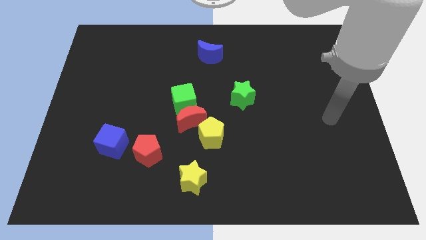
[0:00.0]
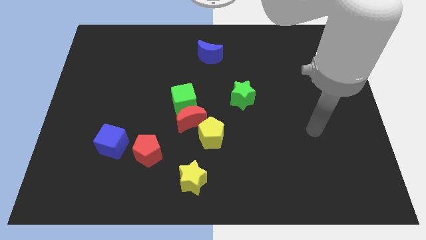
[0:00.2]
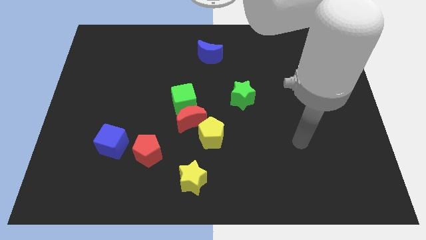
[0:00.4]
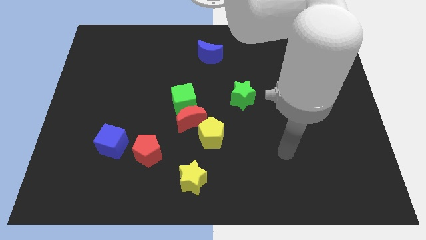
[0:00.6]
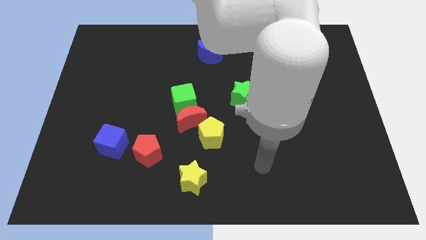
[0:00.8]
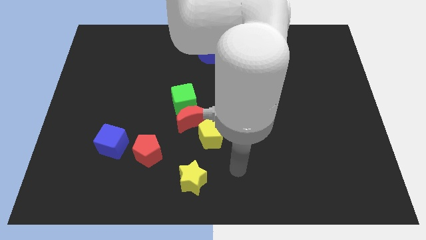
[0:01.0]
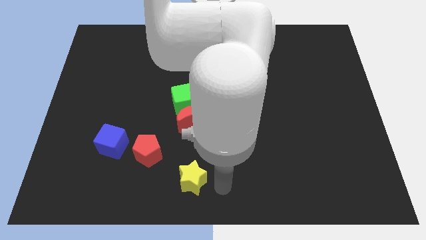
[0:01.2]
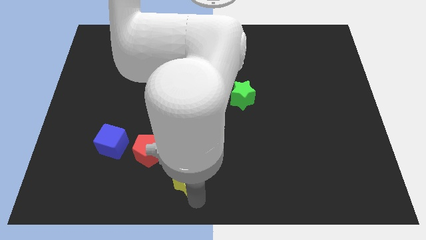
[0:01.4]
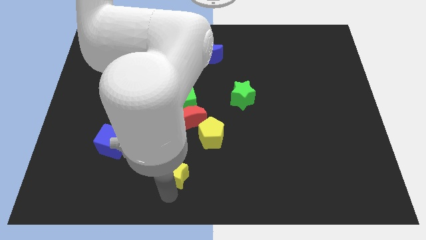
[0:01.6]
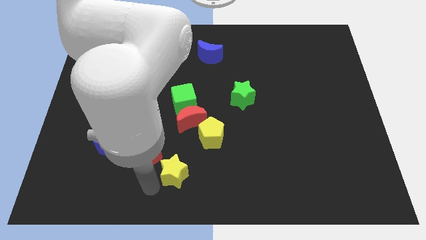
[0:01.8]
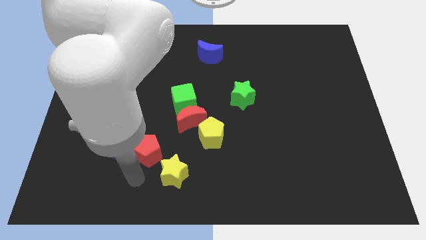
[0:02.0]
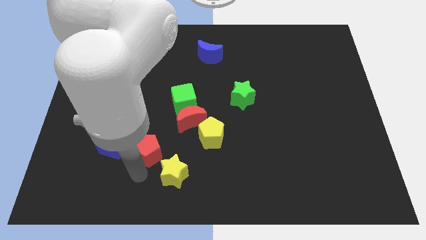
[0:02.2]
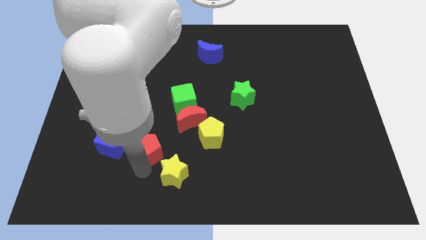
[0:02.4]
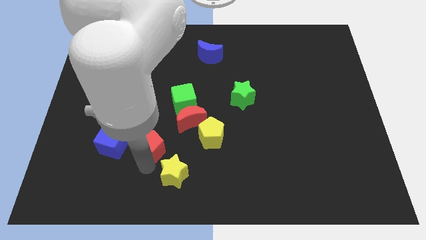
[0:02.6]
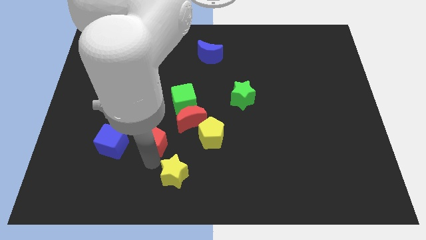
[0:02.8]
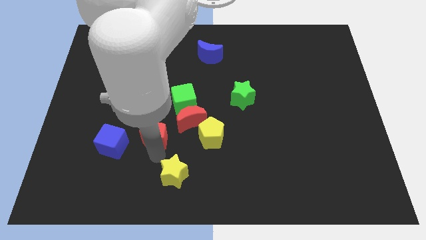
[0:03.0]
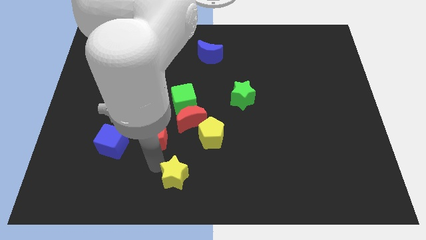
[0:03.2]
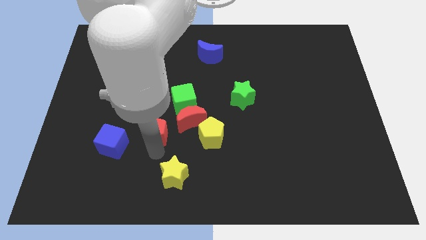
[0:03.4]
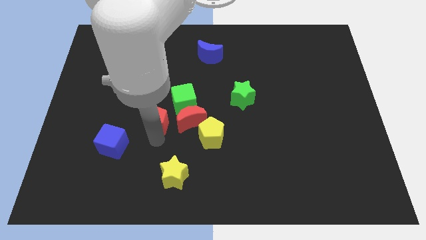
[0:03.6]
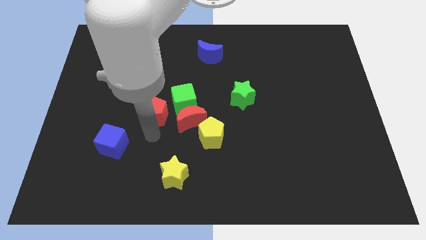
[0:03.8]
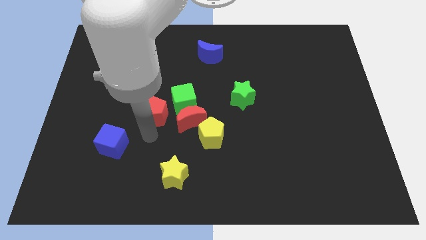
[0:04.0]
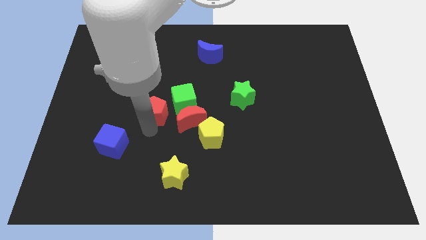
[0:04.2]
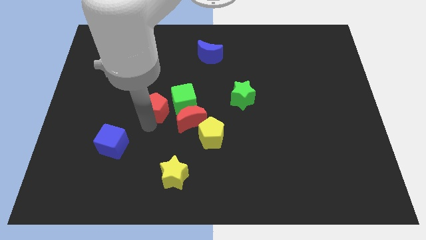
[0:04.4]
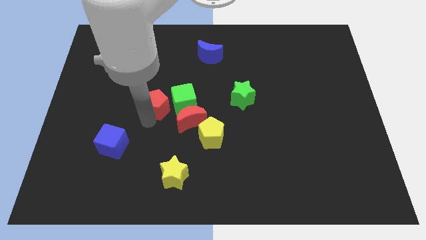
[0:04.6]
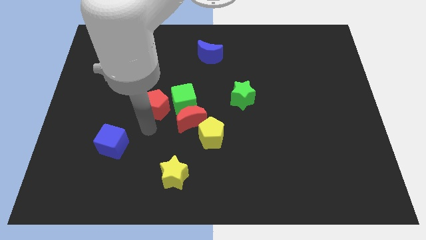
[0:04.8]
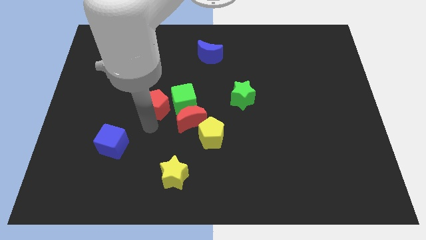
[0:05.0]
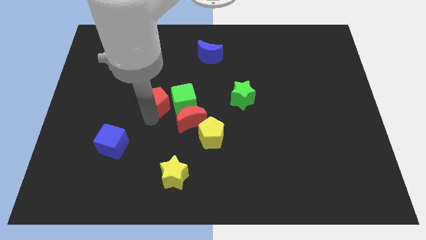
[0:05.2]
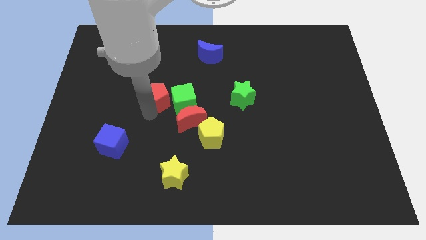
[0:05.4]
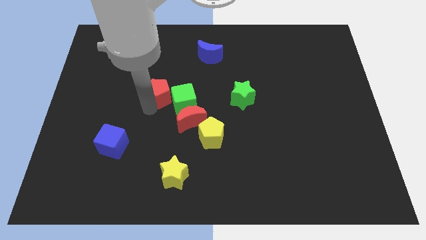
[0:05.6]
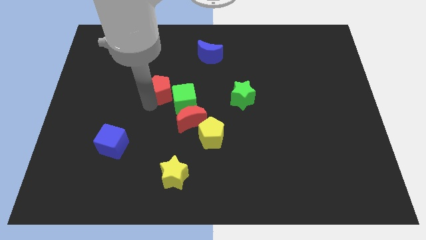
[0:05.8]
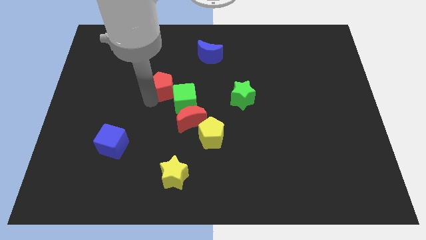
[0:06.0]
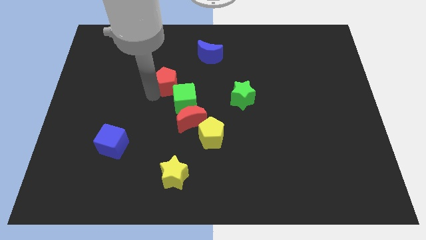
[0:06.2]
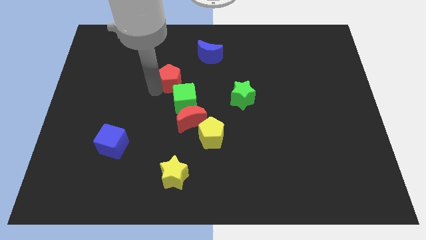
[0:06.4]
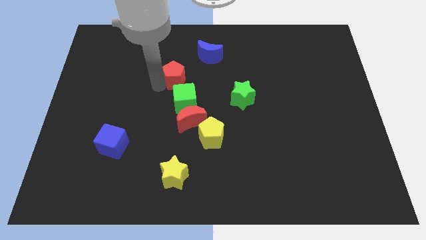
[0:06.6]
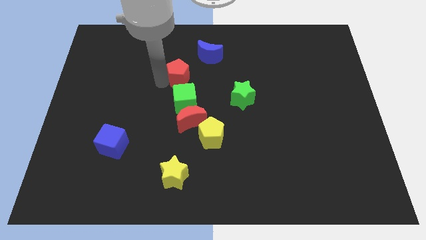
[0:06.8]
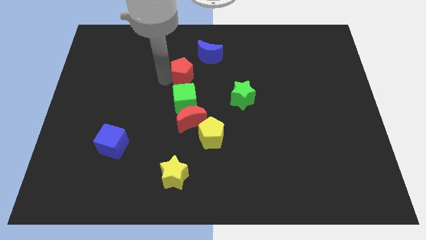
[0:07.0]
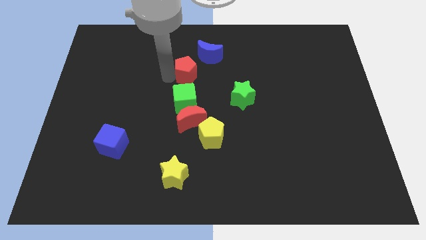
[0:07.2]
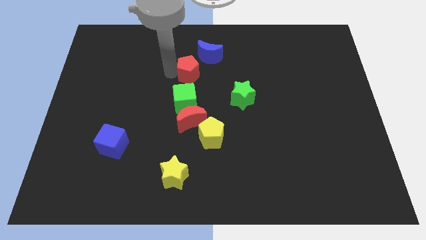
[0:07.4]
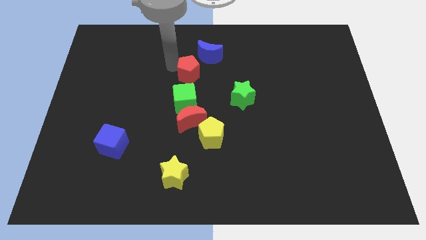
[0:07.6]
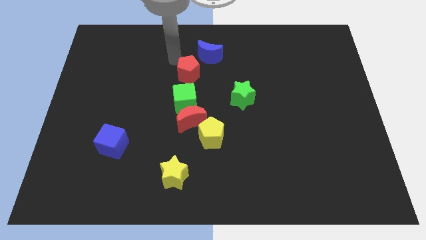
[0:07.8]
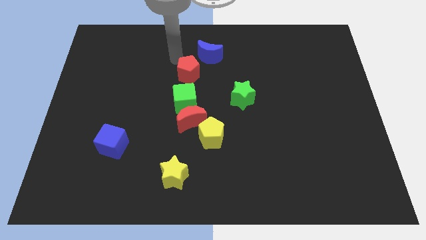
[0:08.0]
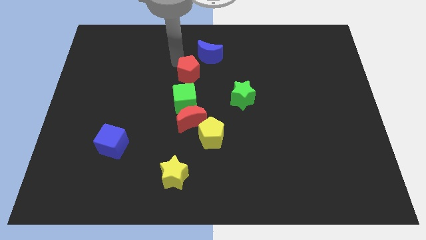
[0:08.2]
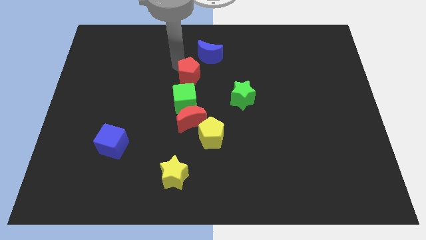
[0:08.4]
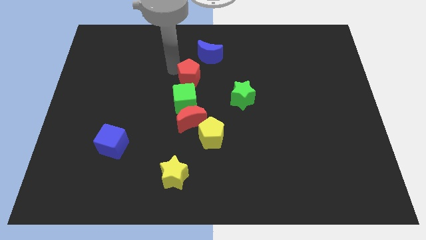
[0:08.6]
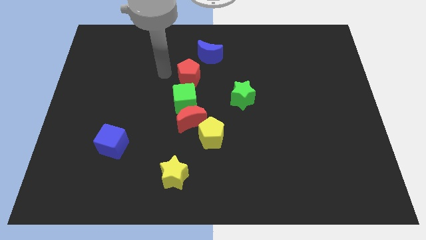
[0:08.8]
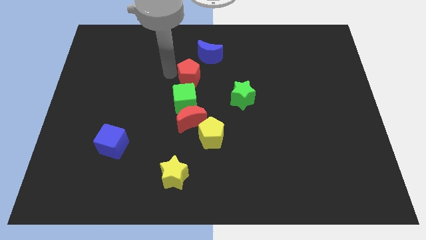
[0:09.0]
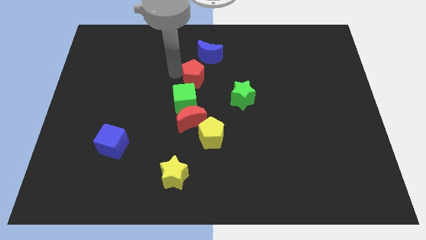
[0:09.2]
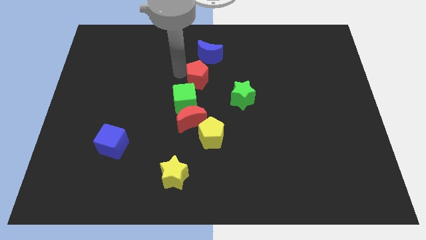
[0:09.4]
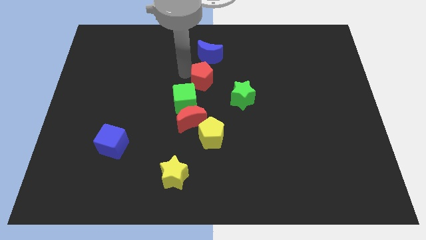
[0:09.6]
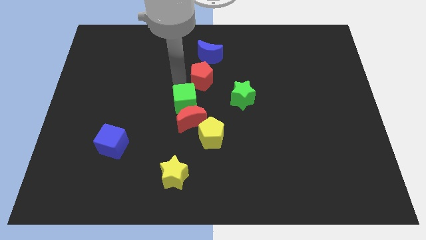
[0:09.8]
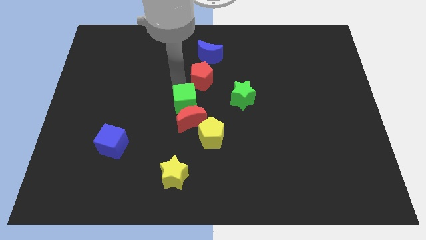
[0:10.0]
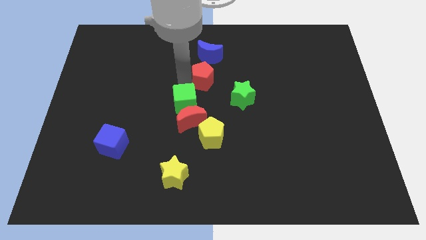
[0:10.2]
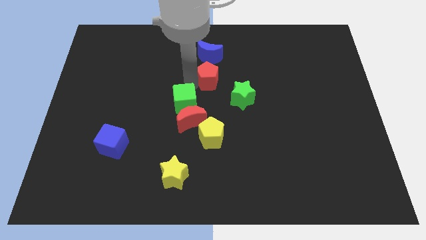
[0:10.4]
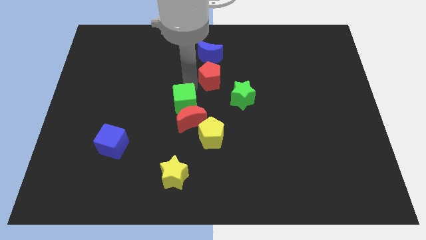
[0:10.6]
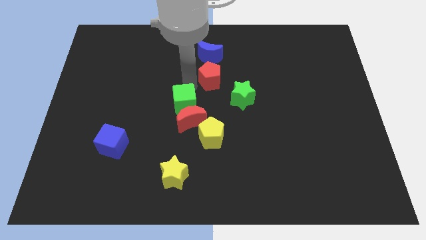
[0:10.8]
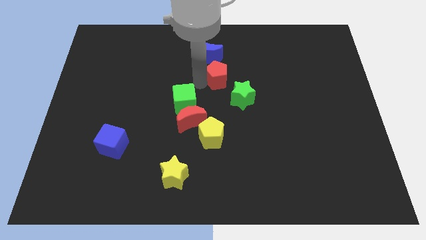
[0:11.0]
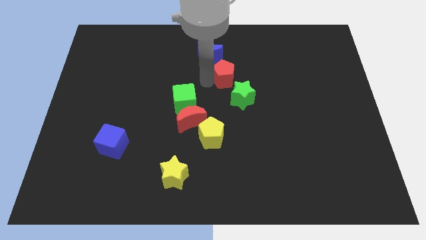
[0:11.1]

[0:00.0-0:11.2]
put the red pentagon to the top side of the green star

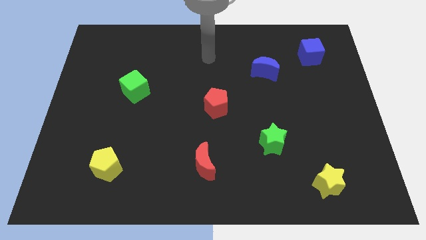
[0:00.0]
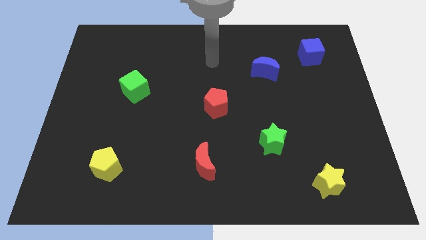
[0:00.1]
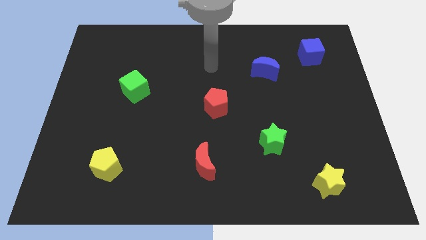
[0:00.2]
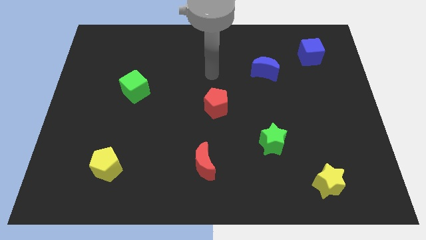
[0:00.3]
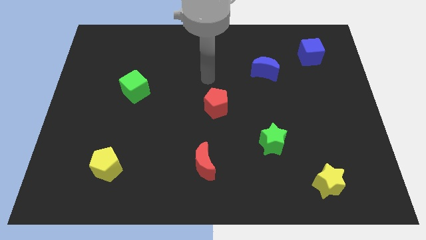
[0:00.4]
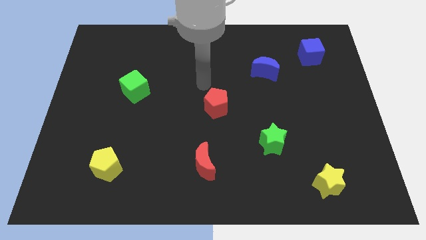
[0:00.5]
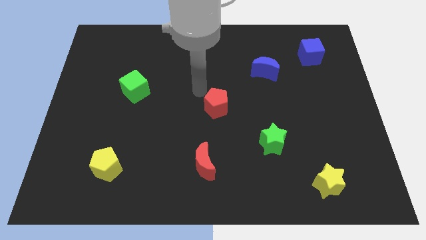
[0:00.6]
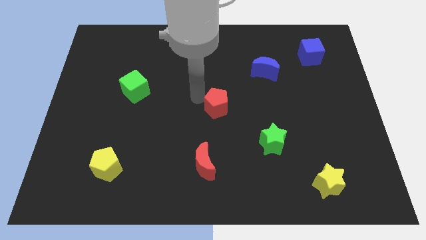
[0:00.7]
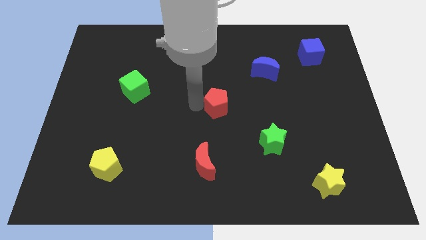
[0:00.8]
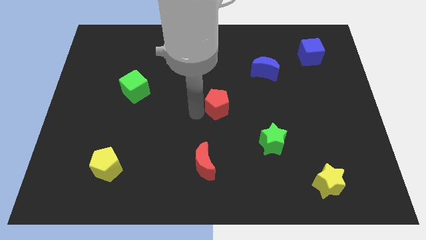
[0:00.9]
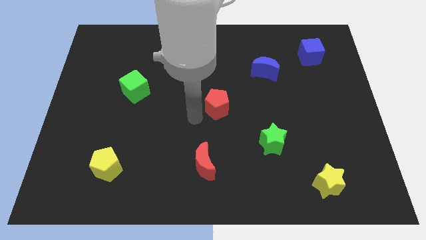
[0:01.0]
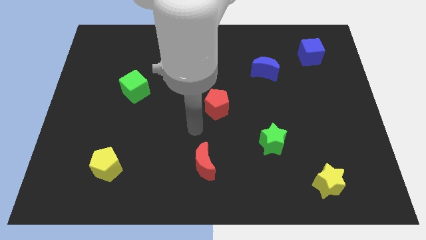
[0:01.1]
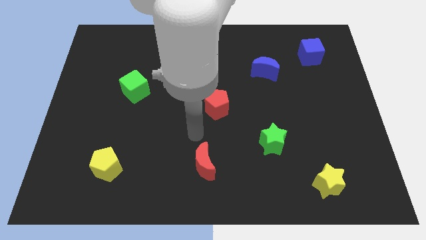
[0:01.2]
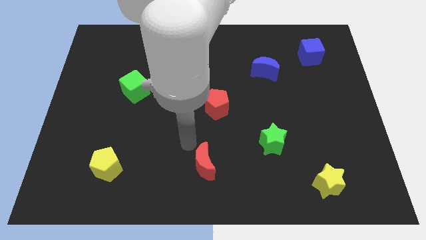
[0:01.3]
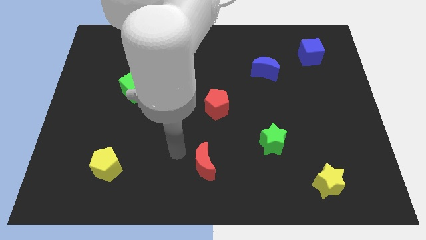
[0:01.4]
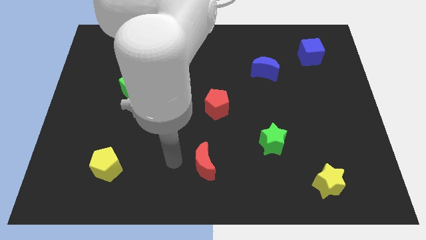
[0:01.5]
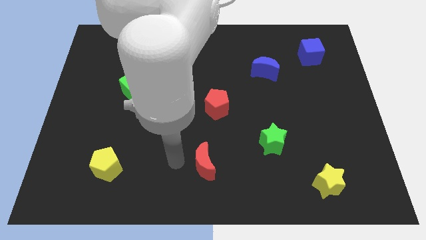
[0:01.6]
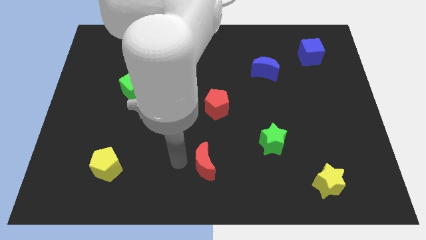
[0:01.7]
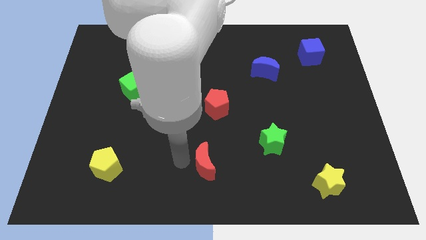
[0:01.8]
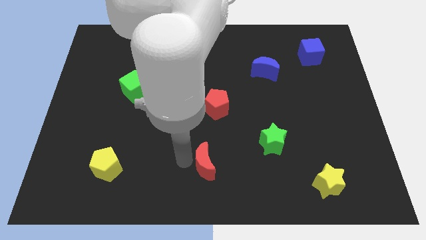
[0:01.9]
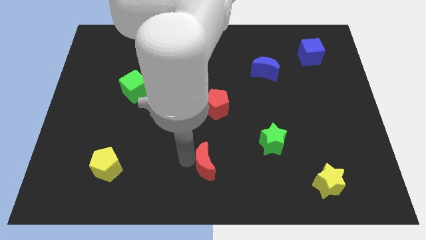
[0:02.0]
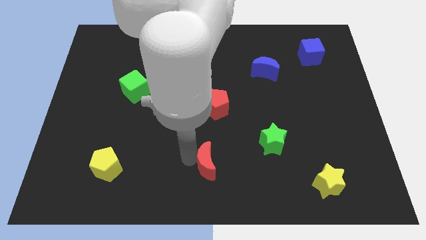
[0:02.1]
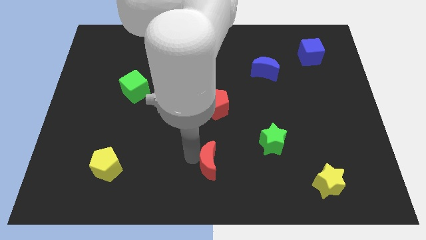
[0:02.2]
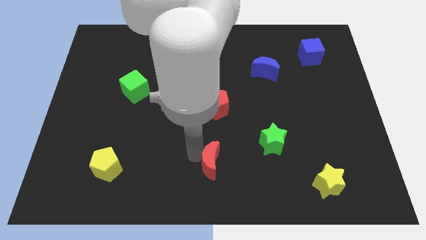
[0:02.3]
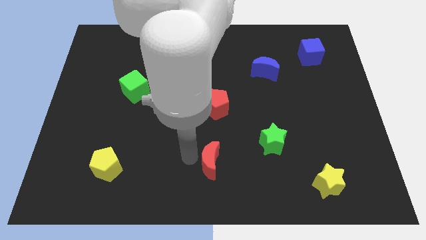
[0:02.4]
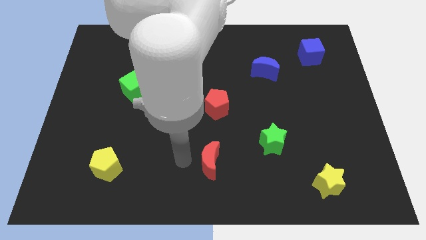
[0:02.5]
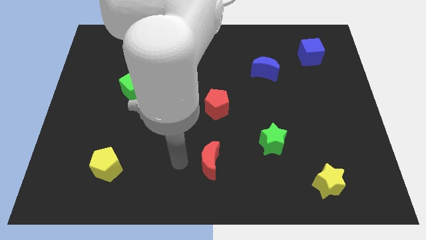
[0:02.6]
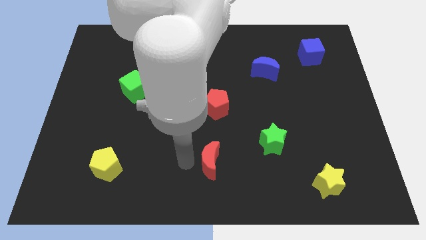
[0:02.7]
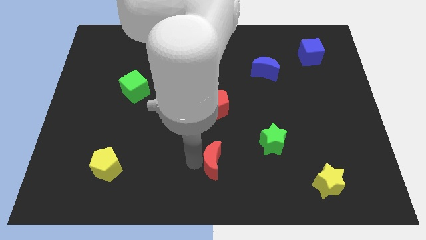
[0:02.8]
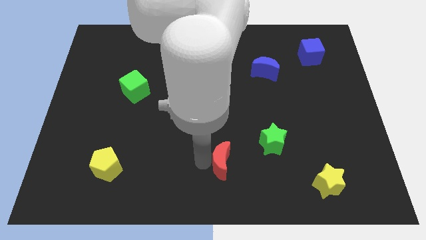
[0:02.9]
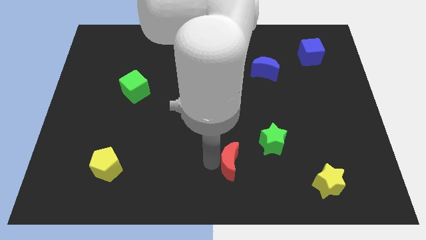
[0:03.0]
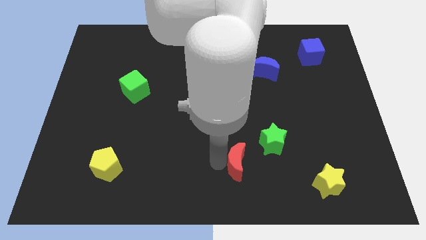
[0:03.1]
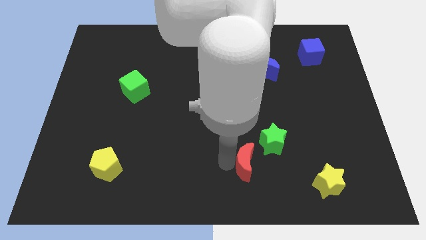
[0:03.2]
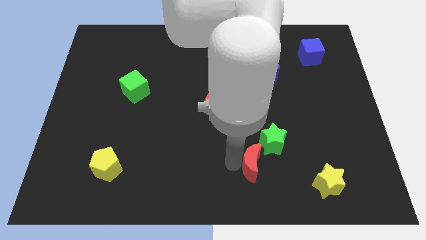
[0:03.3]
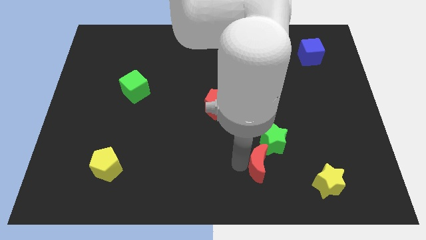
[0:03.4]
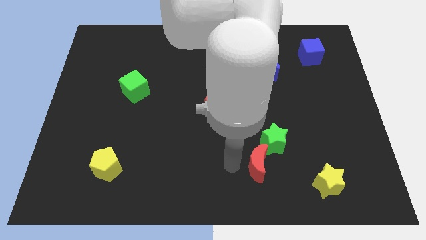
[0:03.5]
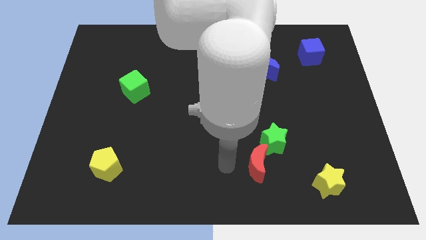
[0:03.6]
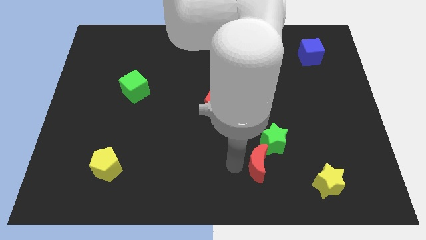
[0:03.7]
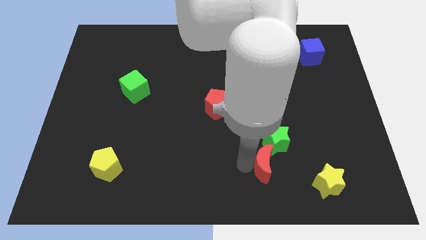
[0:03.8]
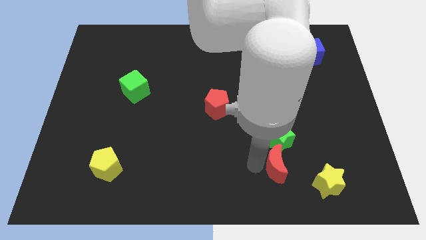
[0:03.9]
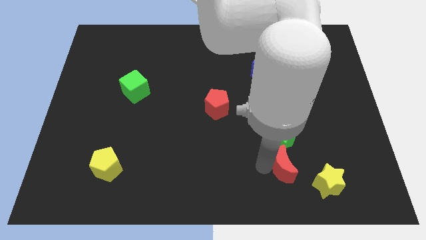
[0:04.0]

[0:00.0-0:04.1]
push the red moon diagonally down and to the right of the green star
